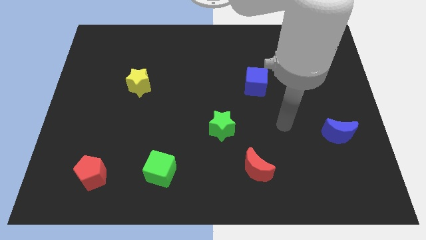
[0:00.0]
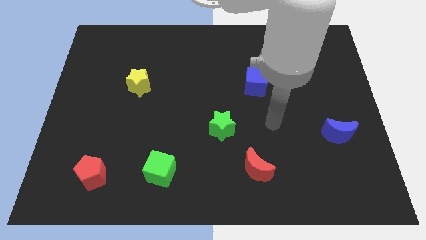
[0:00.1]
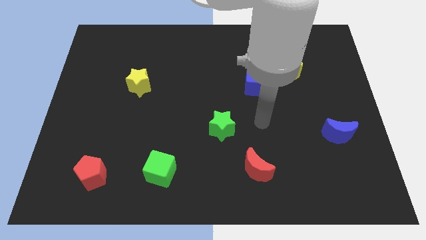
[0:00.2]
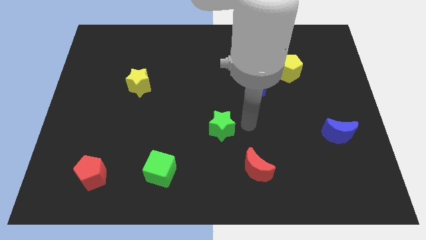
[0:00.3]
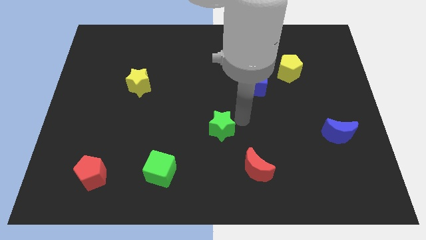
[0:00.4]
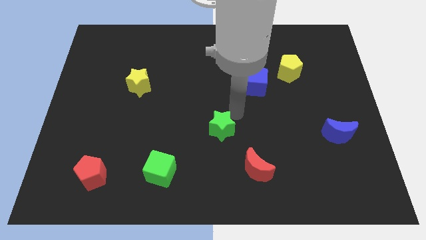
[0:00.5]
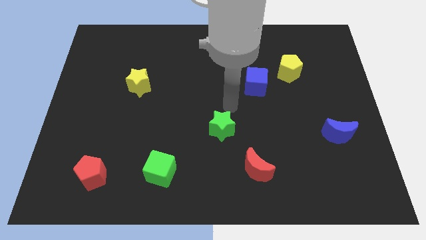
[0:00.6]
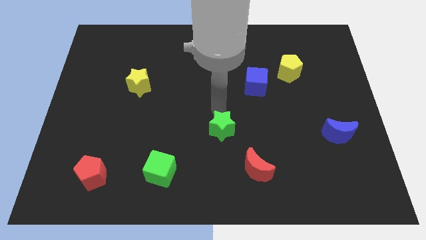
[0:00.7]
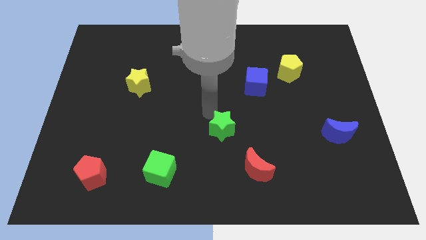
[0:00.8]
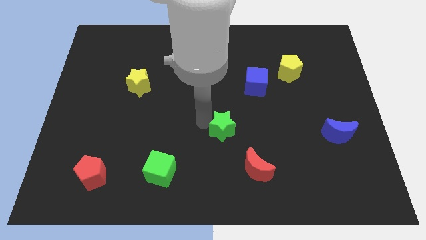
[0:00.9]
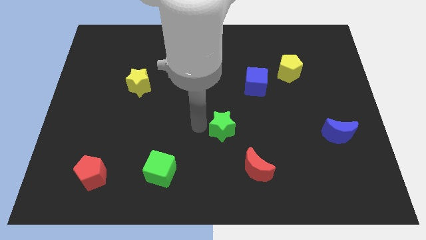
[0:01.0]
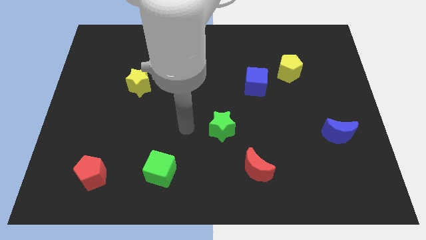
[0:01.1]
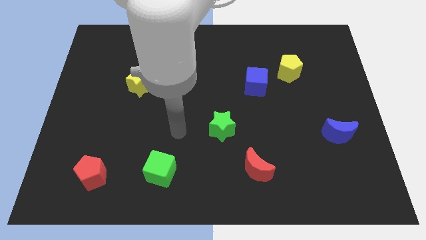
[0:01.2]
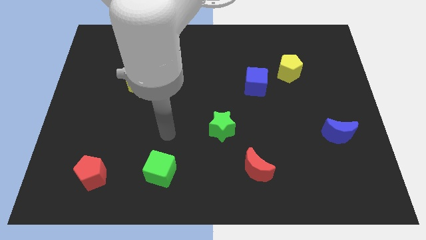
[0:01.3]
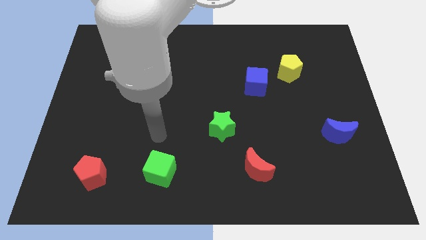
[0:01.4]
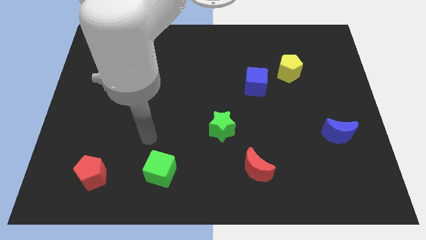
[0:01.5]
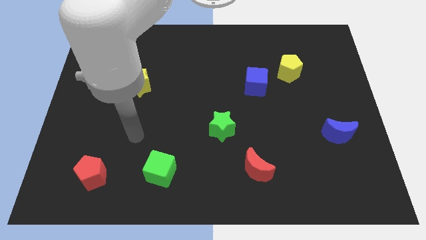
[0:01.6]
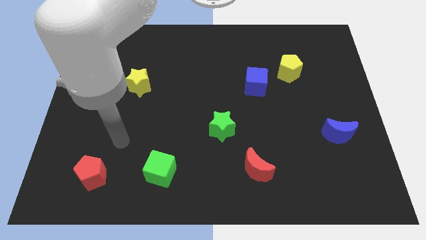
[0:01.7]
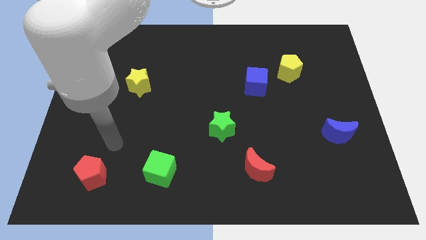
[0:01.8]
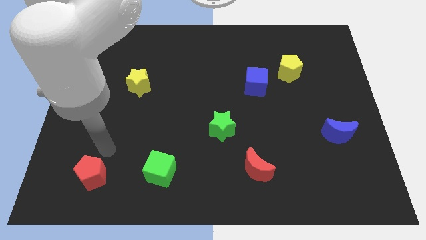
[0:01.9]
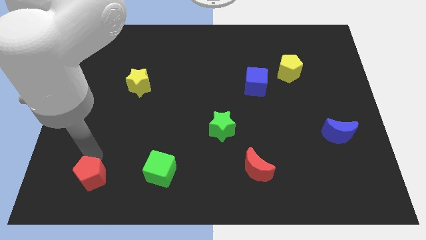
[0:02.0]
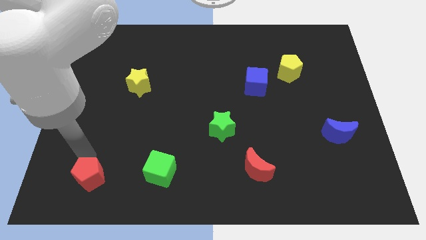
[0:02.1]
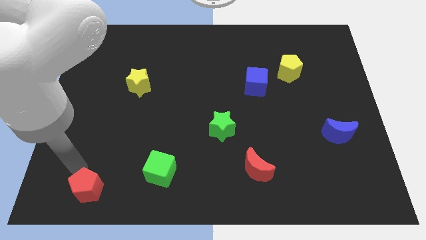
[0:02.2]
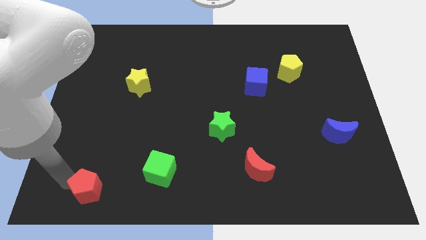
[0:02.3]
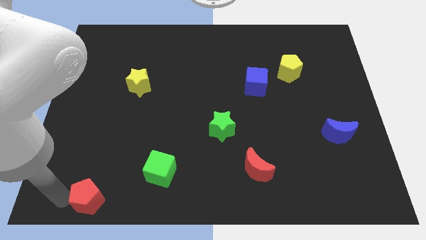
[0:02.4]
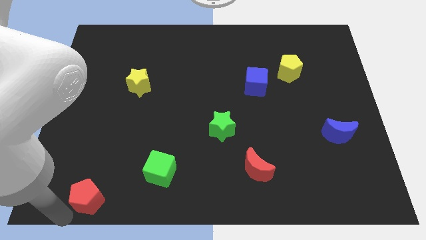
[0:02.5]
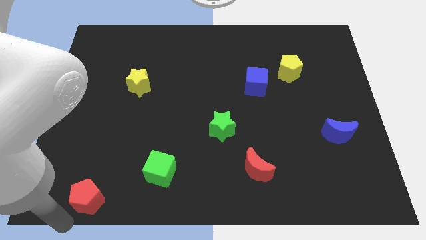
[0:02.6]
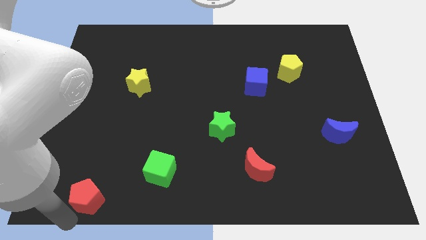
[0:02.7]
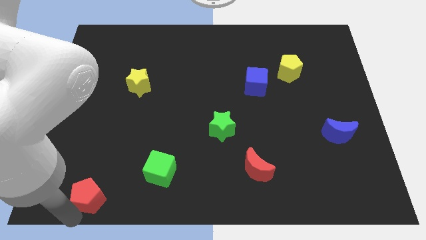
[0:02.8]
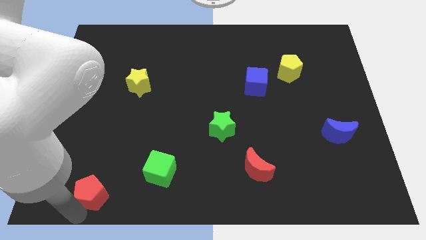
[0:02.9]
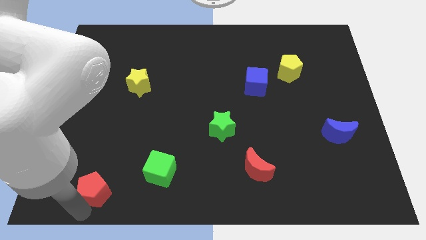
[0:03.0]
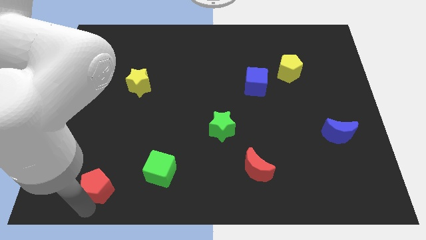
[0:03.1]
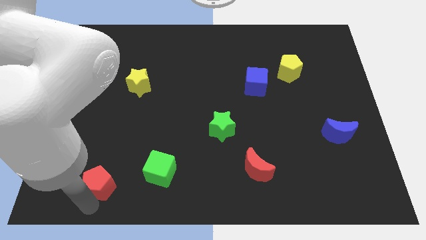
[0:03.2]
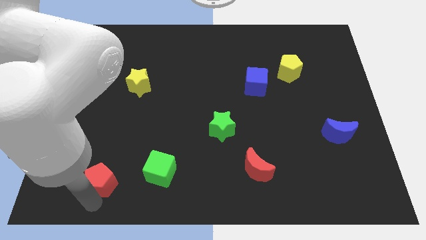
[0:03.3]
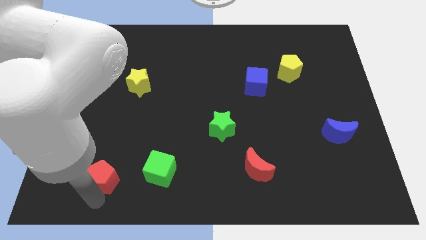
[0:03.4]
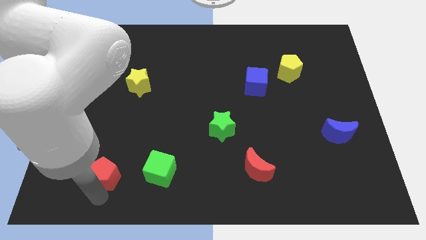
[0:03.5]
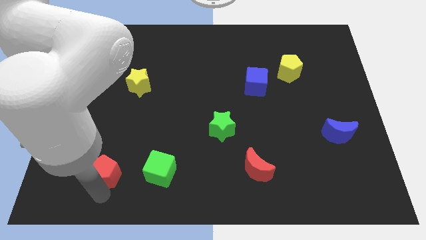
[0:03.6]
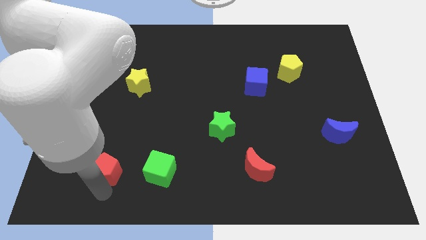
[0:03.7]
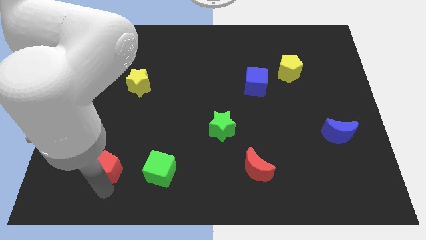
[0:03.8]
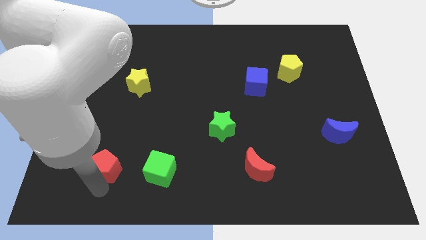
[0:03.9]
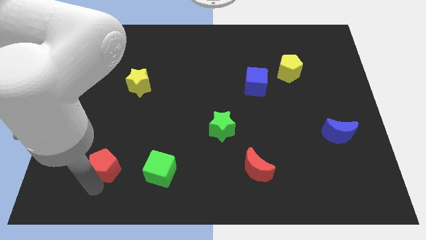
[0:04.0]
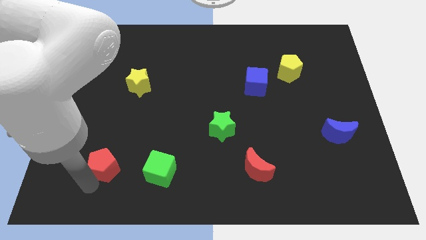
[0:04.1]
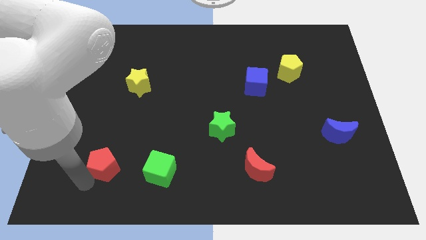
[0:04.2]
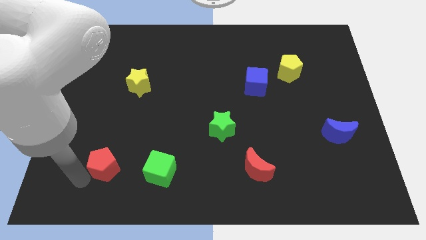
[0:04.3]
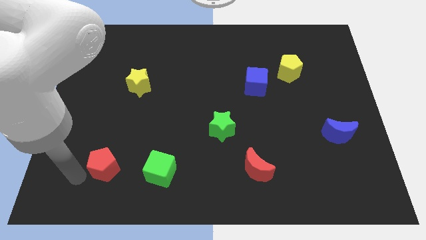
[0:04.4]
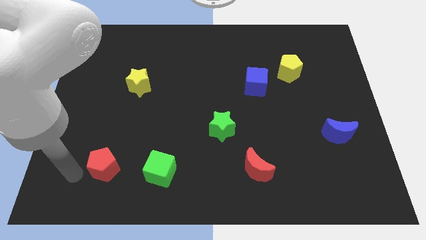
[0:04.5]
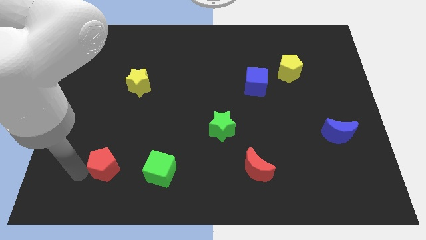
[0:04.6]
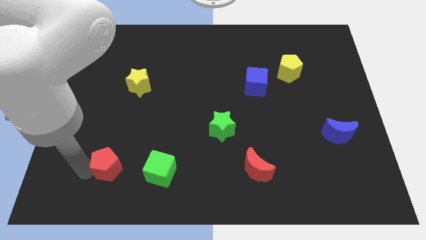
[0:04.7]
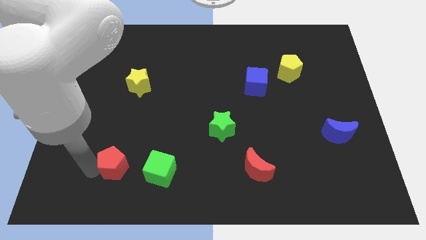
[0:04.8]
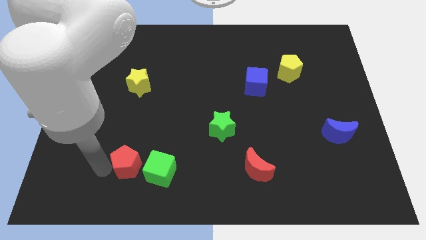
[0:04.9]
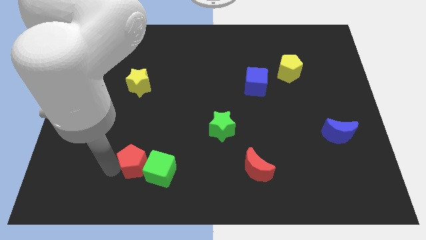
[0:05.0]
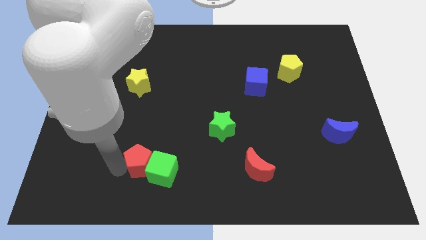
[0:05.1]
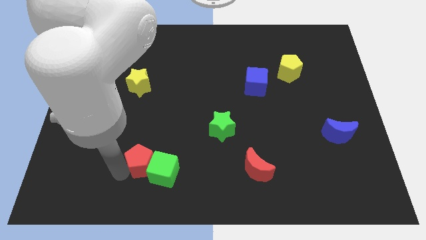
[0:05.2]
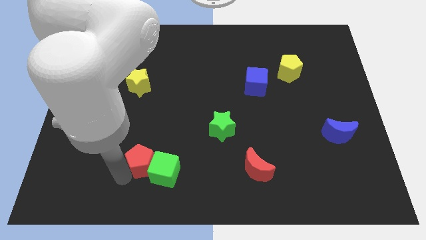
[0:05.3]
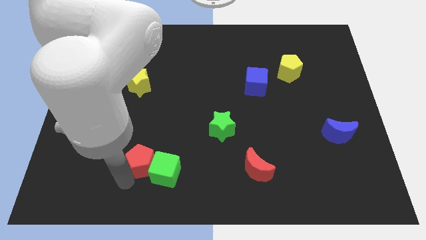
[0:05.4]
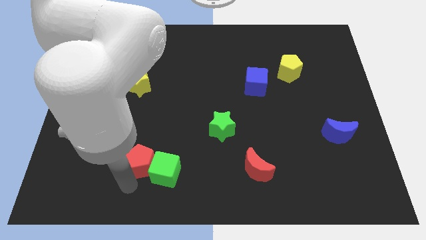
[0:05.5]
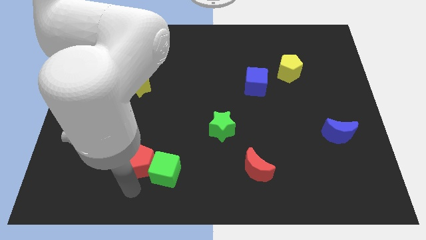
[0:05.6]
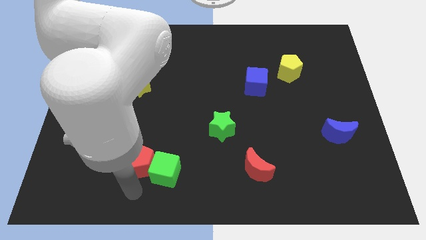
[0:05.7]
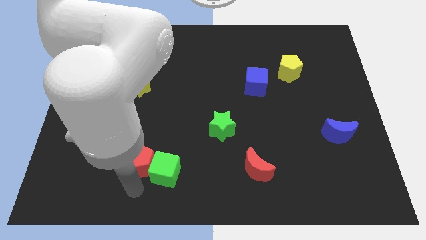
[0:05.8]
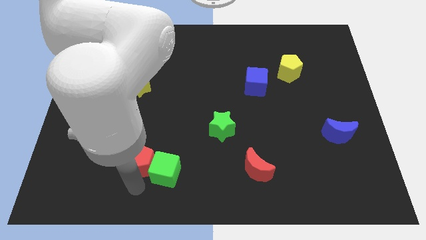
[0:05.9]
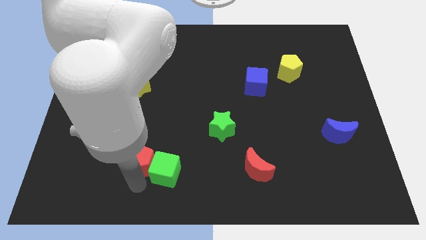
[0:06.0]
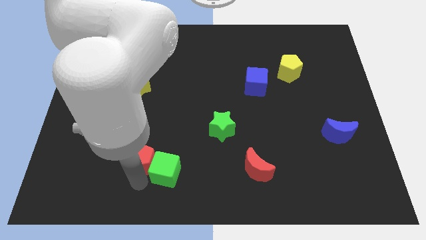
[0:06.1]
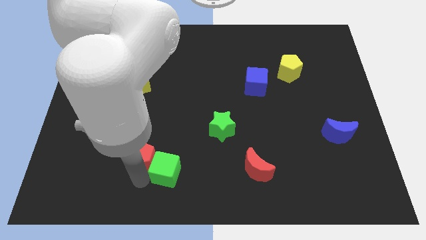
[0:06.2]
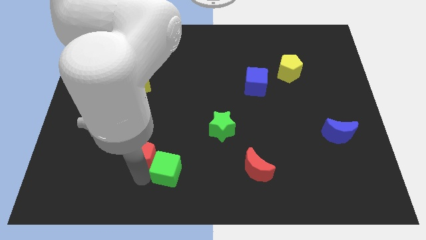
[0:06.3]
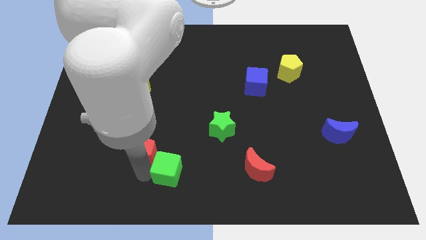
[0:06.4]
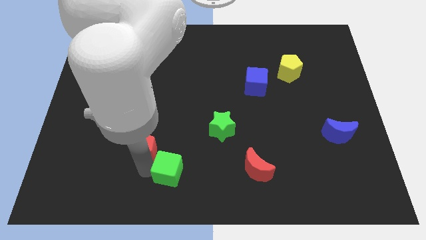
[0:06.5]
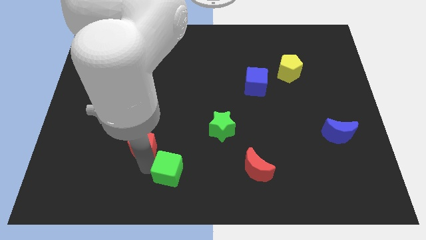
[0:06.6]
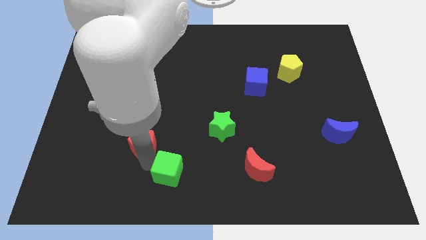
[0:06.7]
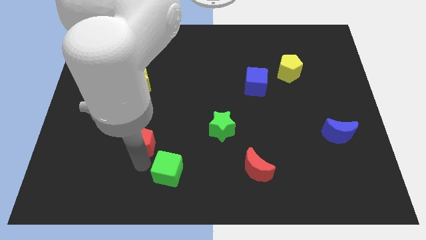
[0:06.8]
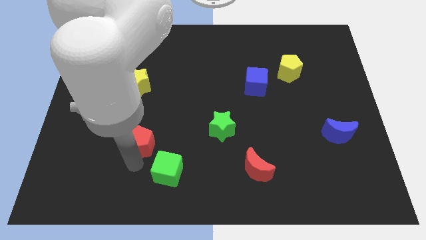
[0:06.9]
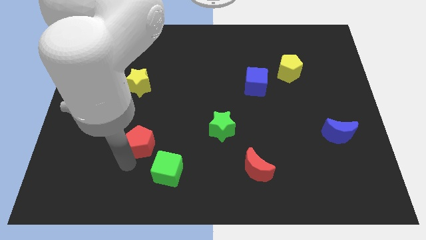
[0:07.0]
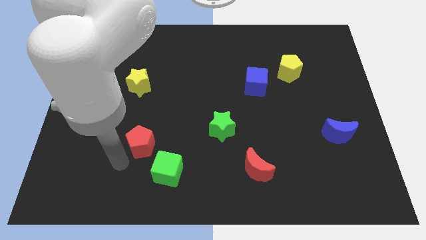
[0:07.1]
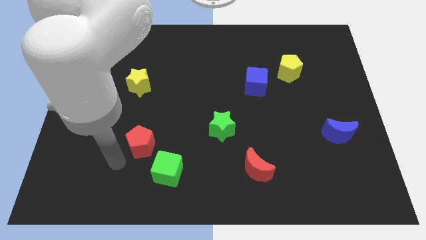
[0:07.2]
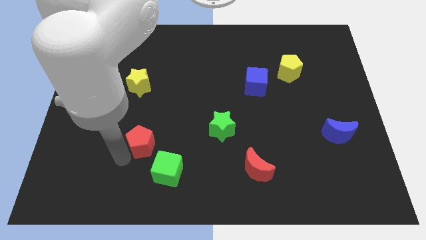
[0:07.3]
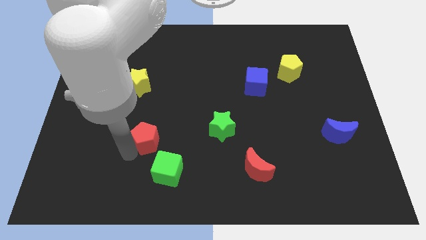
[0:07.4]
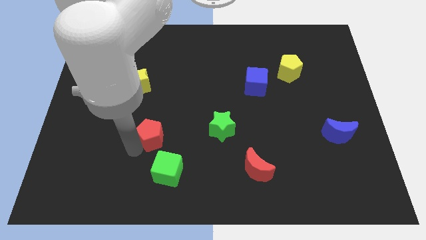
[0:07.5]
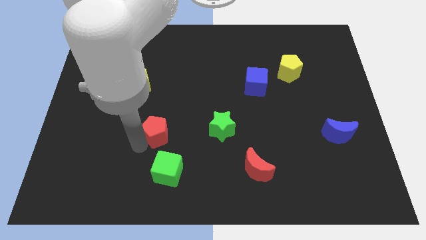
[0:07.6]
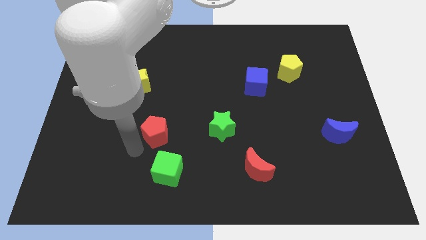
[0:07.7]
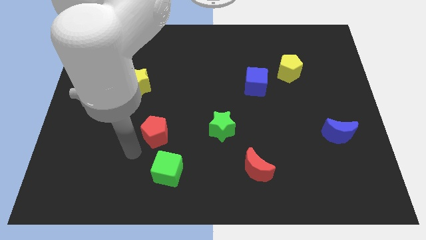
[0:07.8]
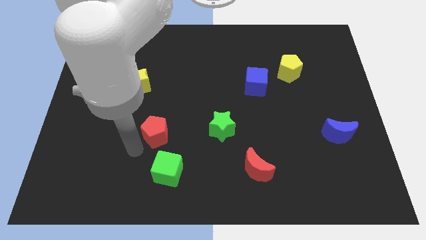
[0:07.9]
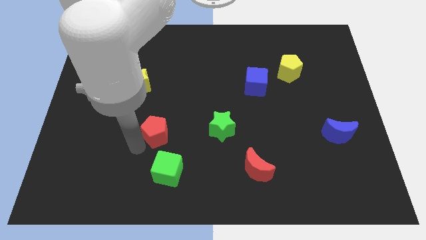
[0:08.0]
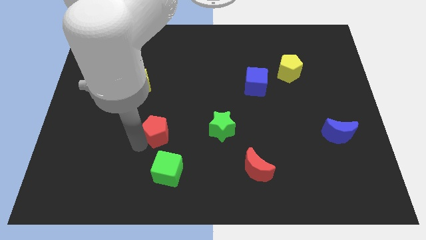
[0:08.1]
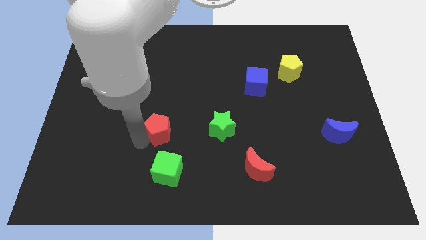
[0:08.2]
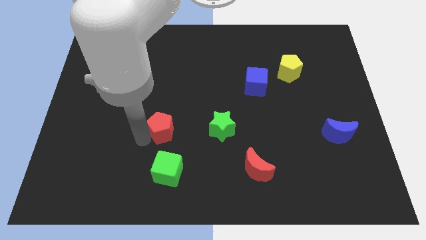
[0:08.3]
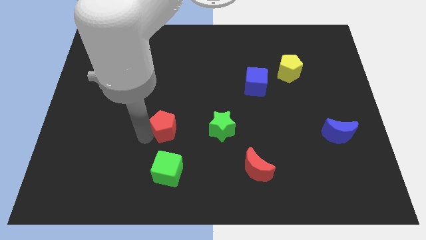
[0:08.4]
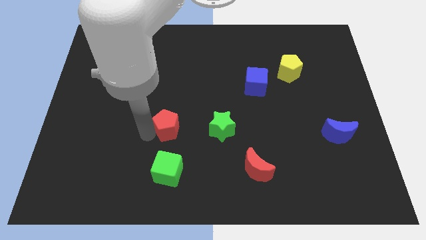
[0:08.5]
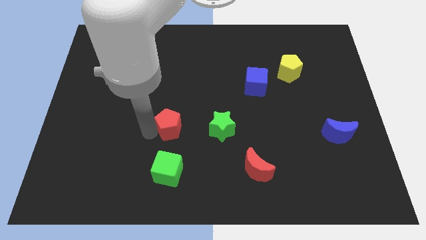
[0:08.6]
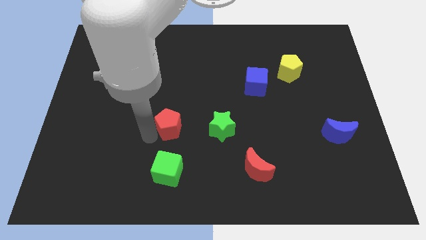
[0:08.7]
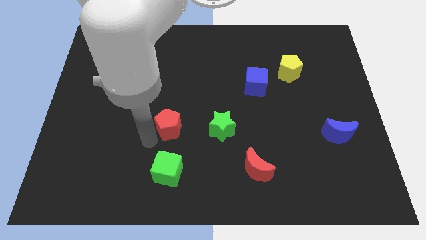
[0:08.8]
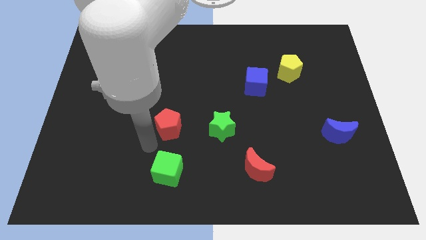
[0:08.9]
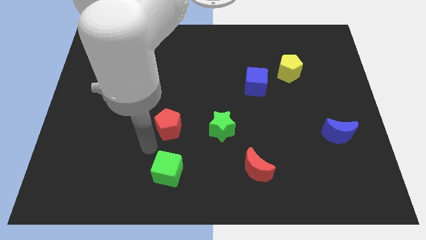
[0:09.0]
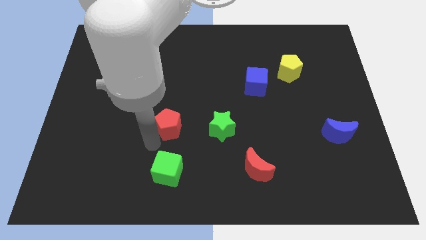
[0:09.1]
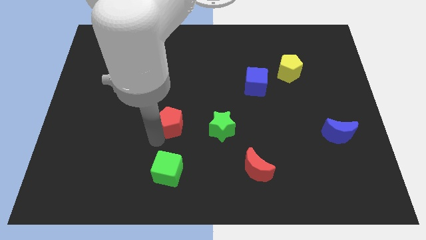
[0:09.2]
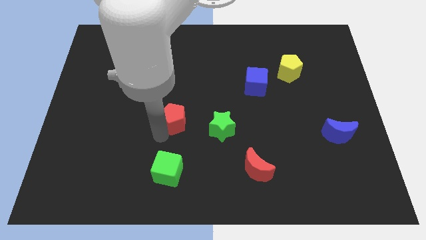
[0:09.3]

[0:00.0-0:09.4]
move the red pentagon up and to the right diagonally
